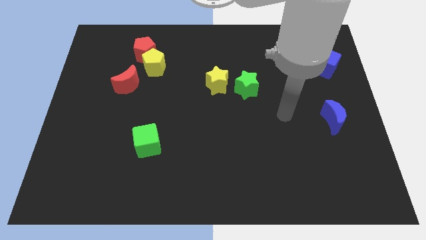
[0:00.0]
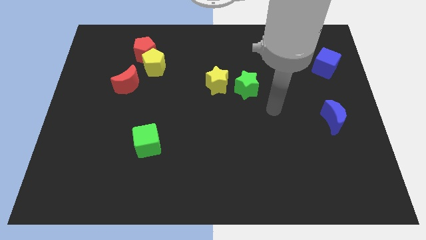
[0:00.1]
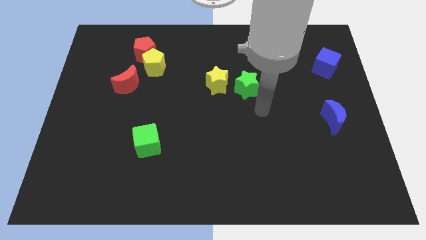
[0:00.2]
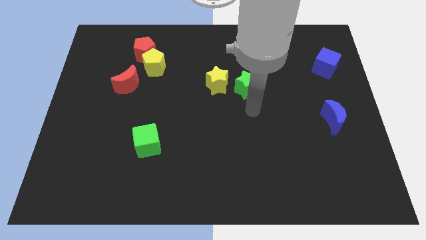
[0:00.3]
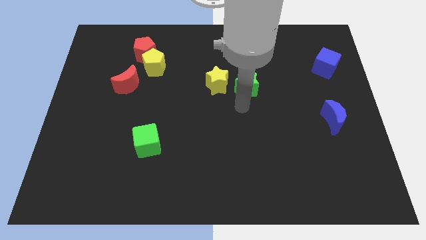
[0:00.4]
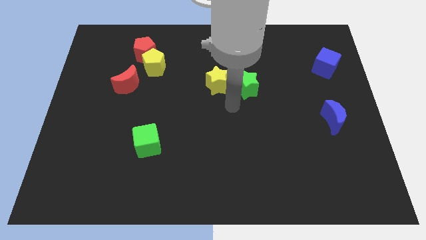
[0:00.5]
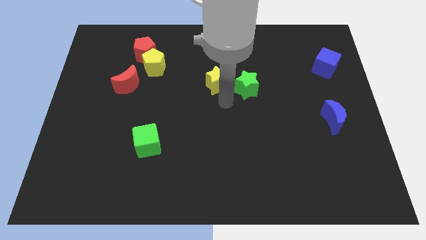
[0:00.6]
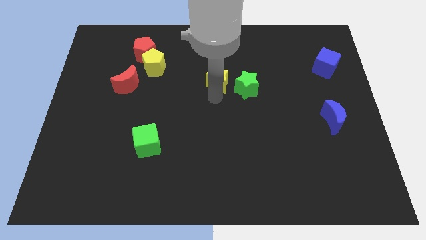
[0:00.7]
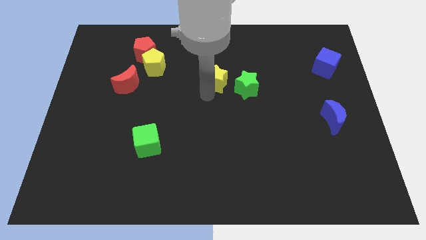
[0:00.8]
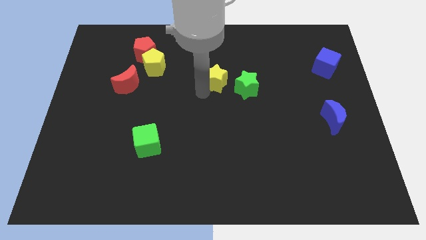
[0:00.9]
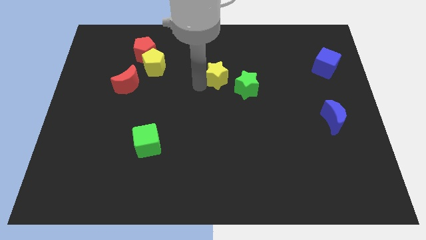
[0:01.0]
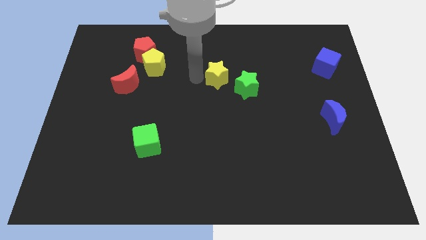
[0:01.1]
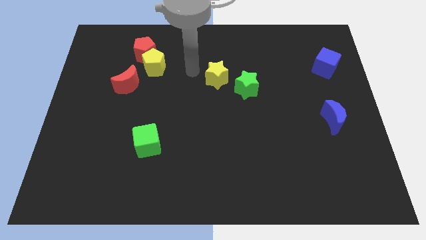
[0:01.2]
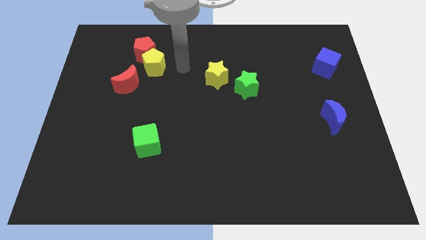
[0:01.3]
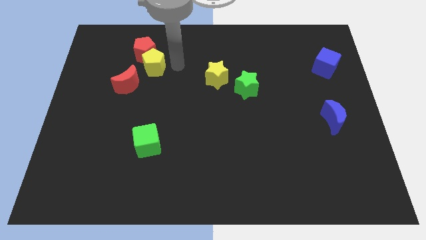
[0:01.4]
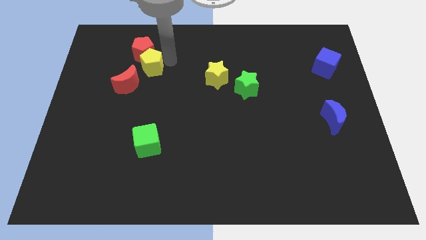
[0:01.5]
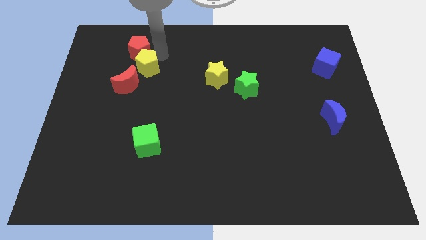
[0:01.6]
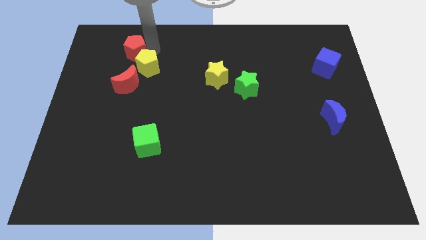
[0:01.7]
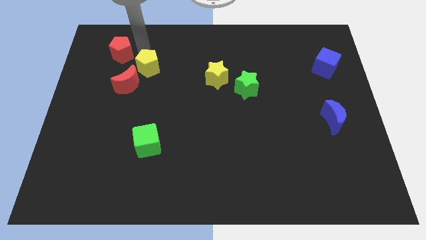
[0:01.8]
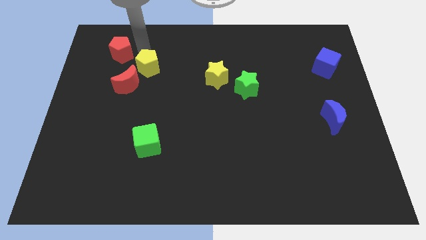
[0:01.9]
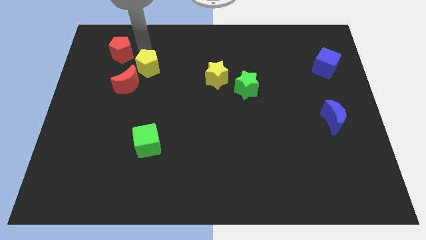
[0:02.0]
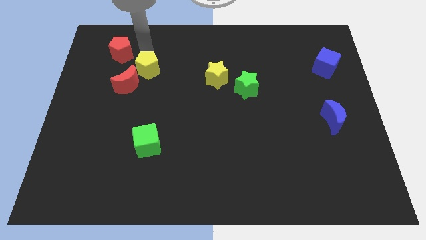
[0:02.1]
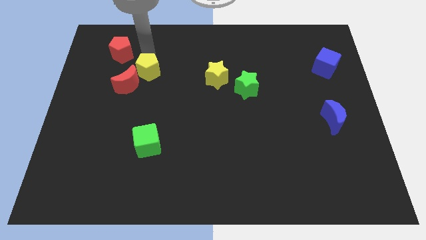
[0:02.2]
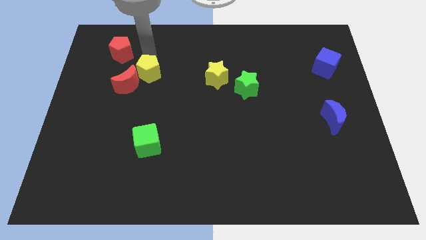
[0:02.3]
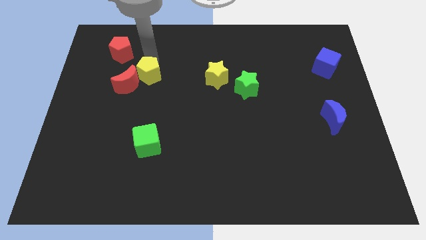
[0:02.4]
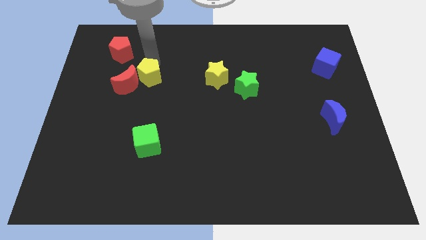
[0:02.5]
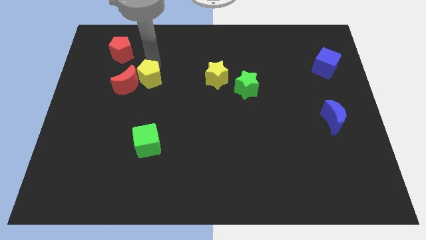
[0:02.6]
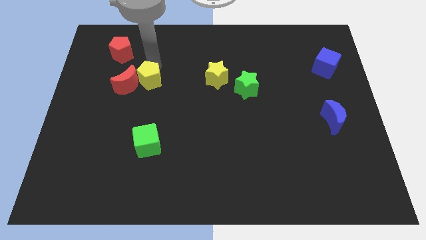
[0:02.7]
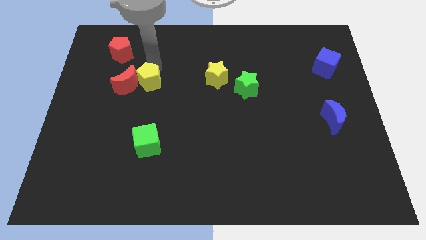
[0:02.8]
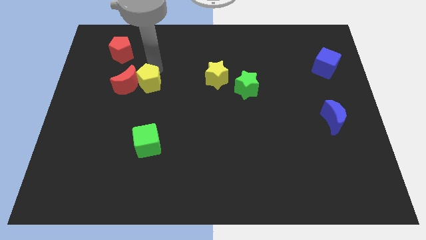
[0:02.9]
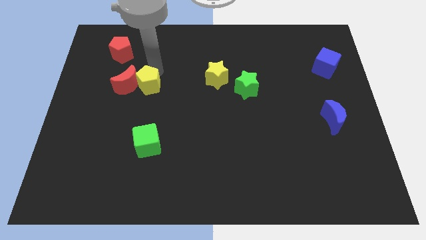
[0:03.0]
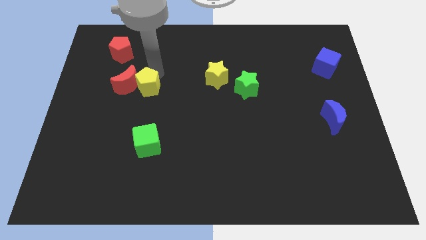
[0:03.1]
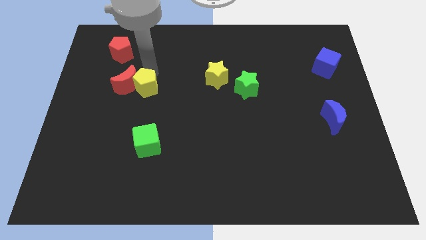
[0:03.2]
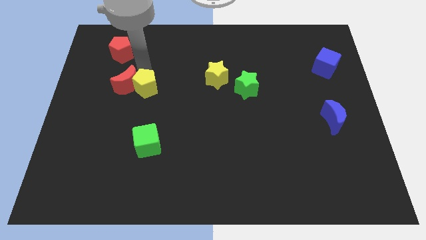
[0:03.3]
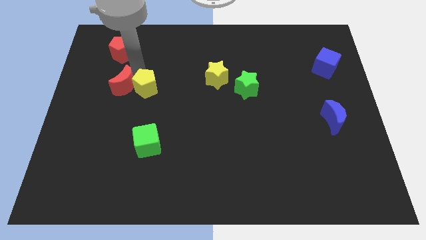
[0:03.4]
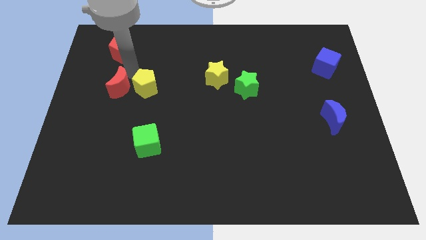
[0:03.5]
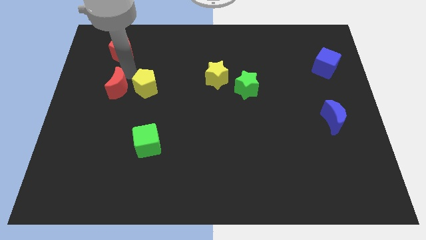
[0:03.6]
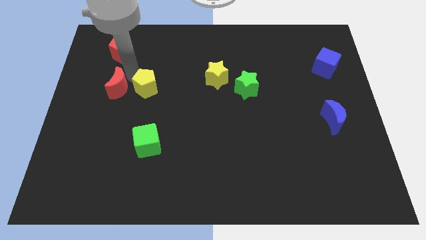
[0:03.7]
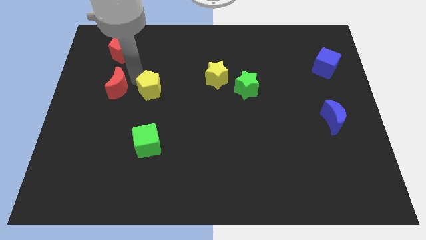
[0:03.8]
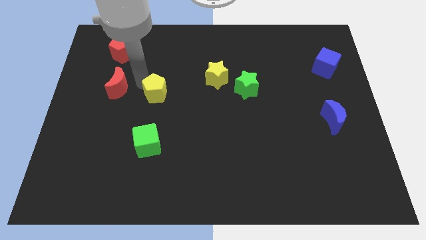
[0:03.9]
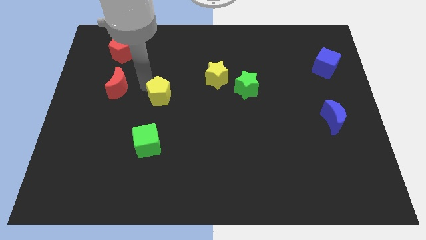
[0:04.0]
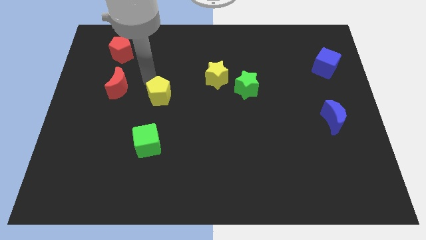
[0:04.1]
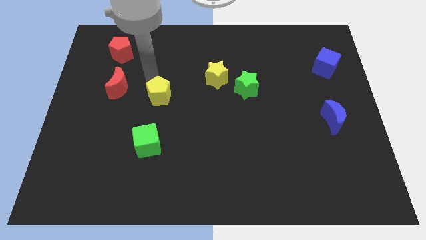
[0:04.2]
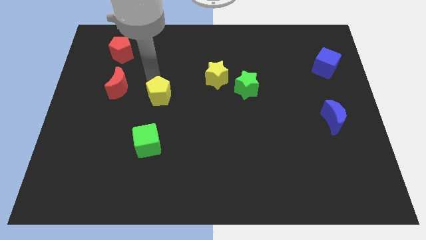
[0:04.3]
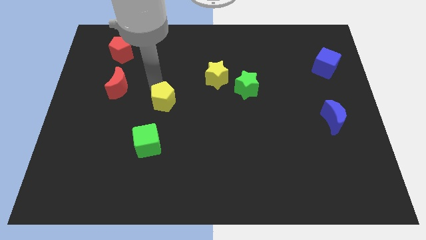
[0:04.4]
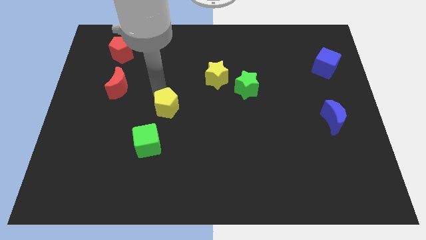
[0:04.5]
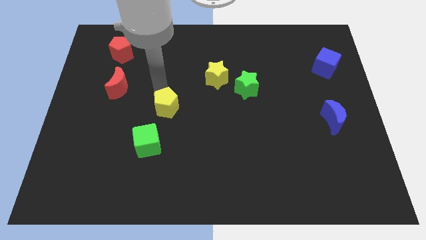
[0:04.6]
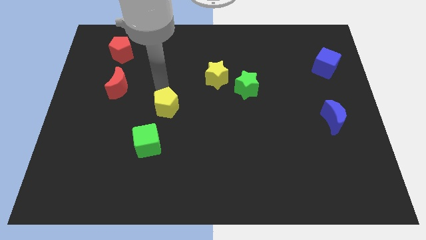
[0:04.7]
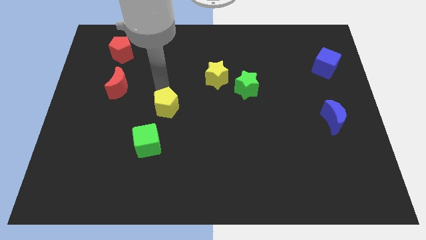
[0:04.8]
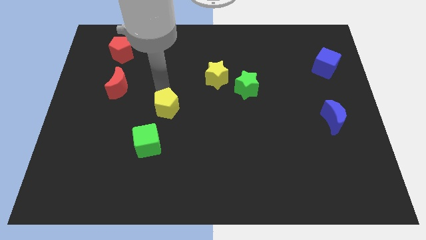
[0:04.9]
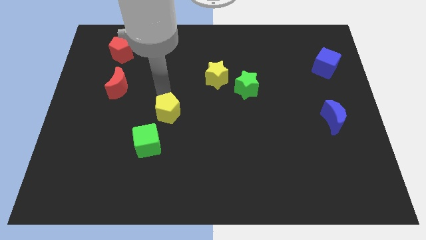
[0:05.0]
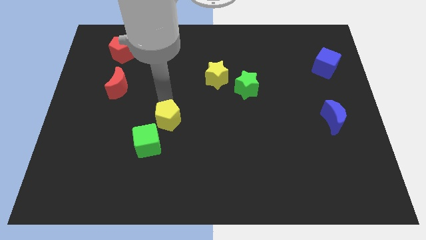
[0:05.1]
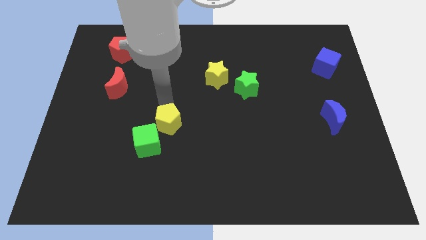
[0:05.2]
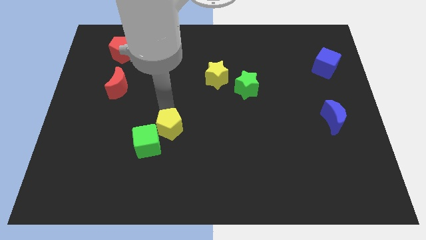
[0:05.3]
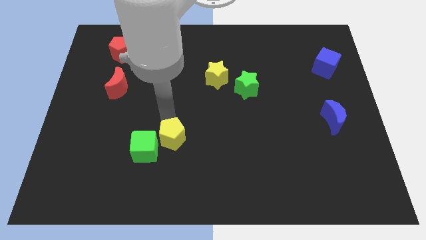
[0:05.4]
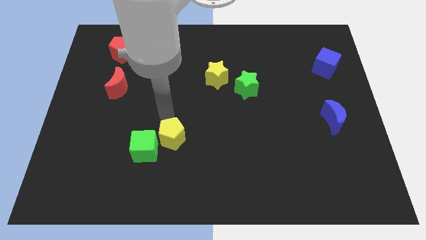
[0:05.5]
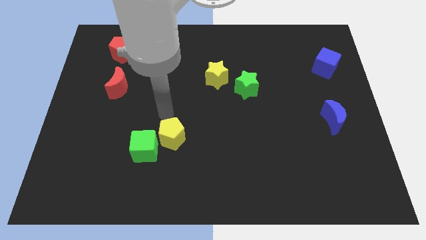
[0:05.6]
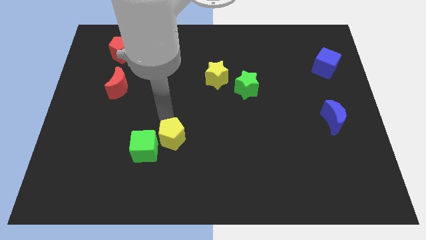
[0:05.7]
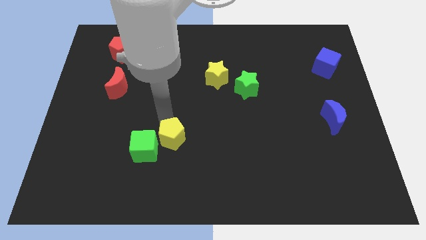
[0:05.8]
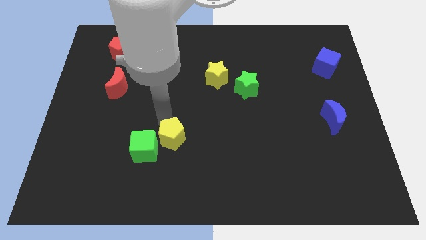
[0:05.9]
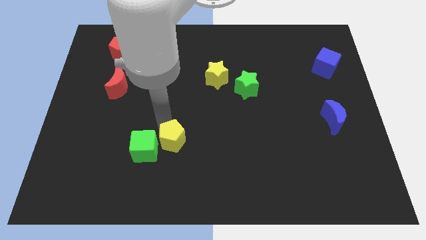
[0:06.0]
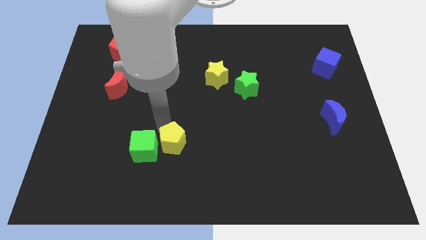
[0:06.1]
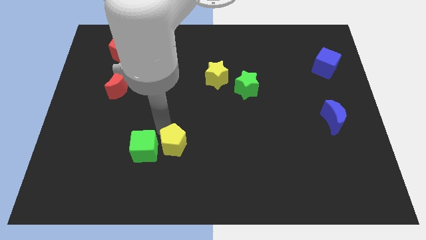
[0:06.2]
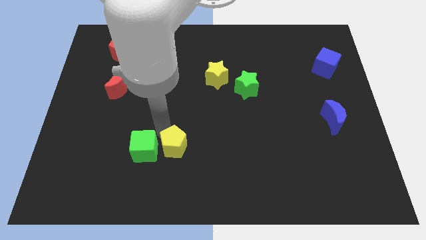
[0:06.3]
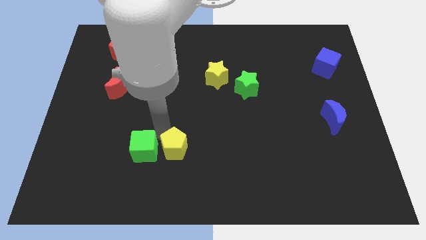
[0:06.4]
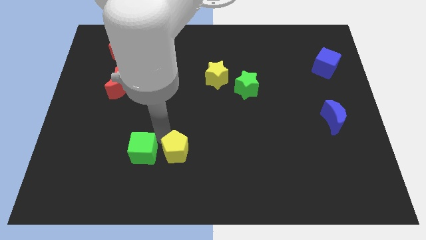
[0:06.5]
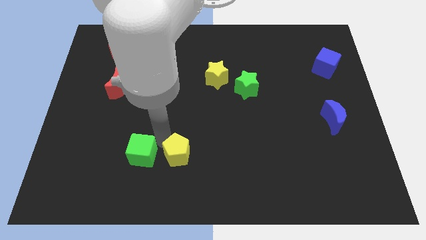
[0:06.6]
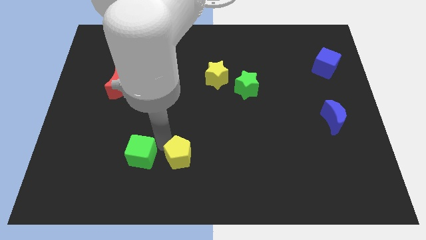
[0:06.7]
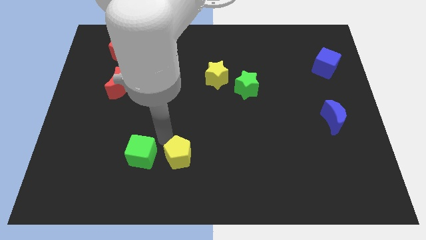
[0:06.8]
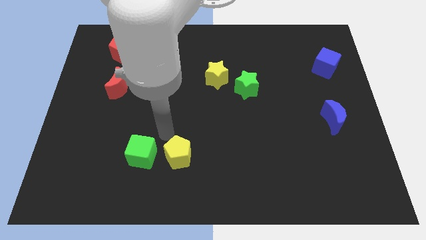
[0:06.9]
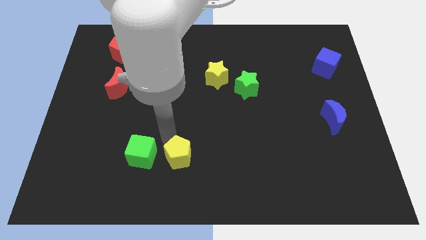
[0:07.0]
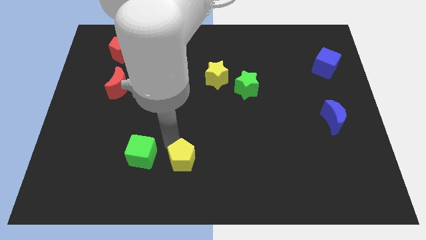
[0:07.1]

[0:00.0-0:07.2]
put the yellow pentagon to the bottom side
